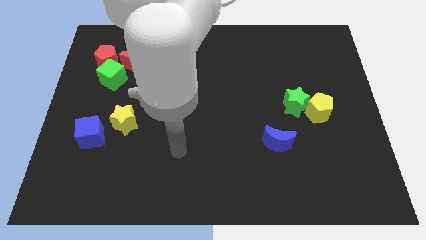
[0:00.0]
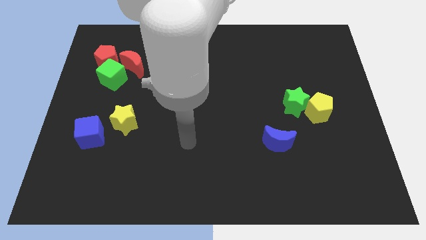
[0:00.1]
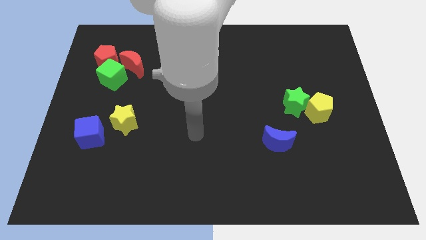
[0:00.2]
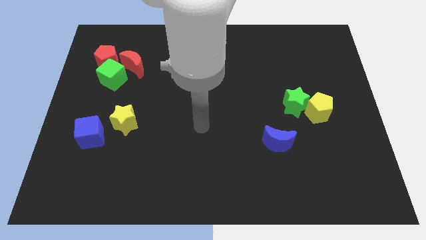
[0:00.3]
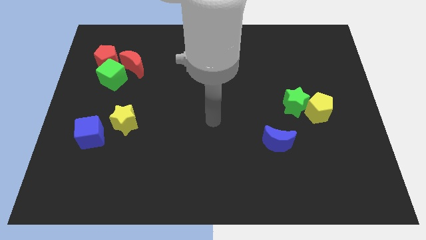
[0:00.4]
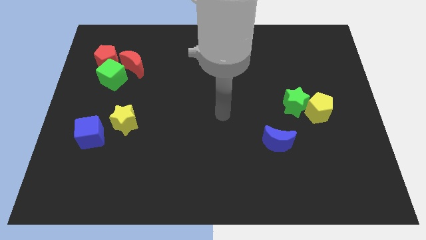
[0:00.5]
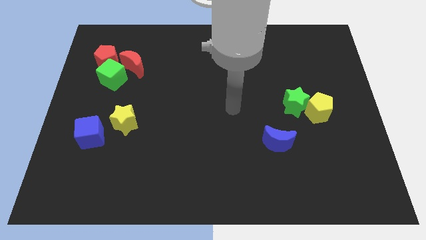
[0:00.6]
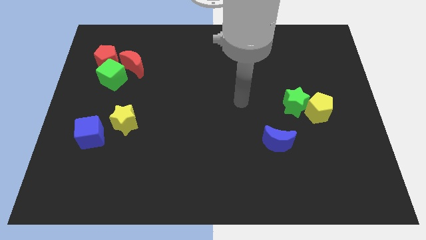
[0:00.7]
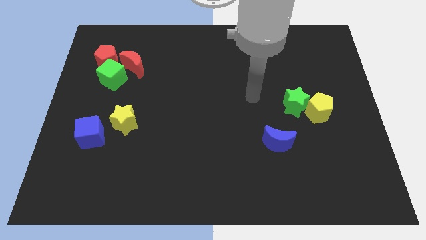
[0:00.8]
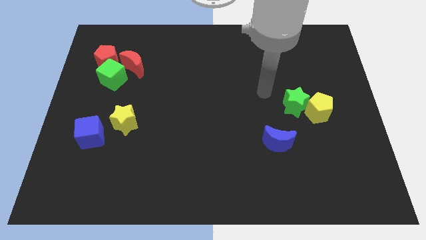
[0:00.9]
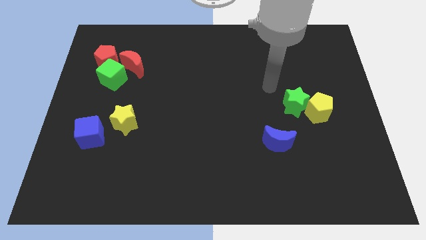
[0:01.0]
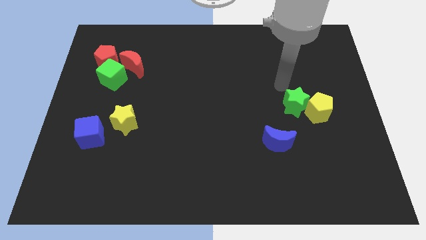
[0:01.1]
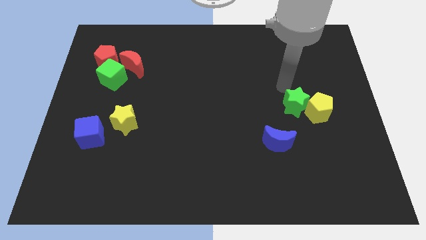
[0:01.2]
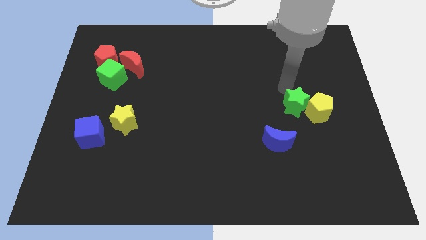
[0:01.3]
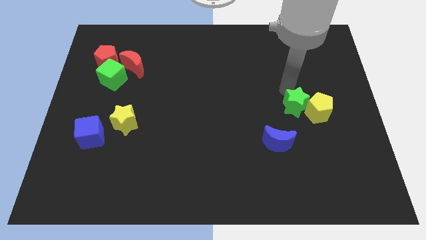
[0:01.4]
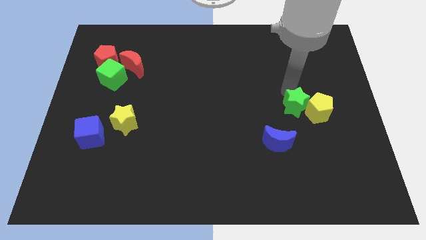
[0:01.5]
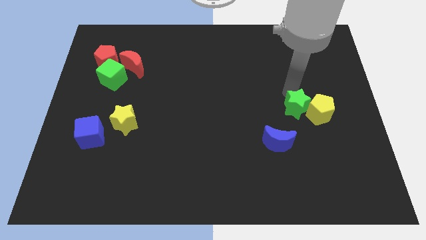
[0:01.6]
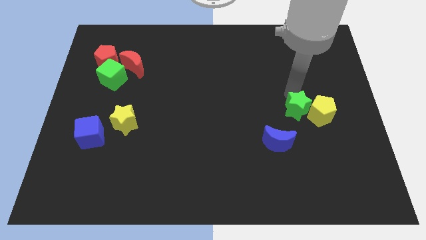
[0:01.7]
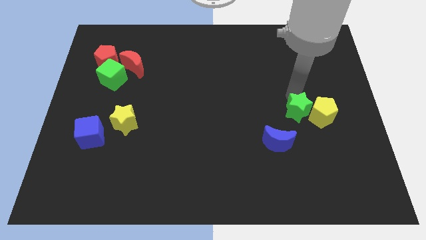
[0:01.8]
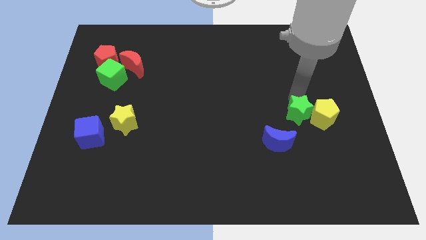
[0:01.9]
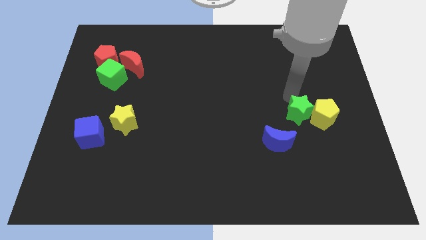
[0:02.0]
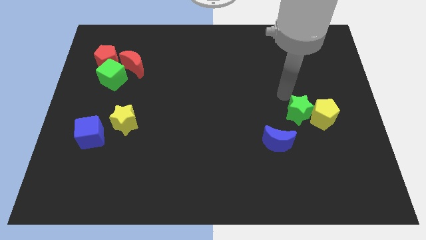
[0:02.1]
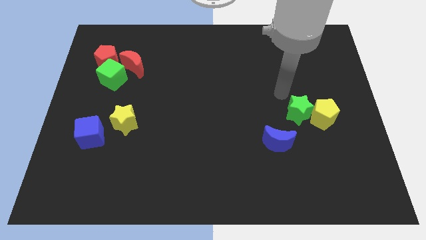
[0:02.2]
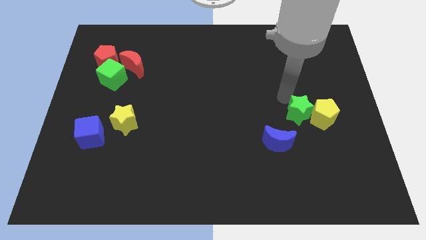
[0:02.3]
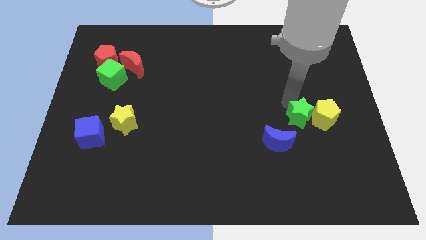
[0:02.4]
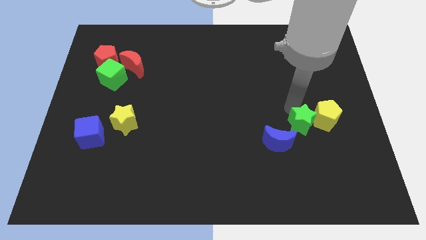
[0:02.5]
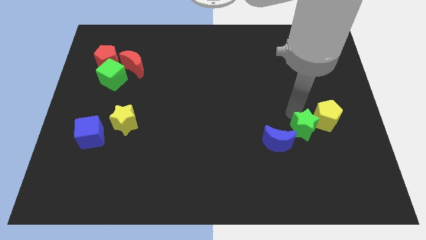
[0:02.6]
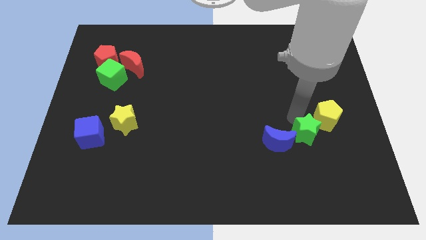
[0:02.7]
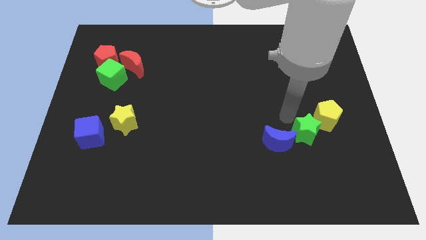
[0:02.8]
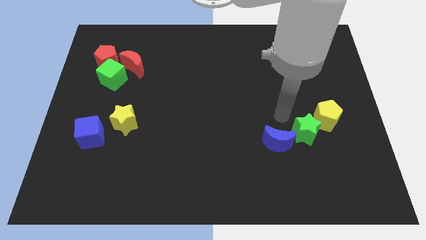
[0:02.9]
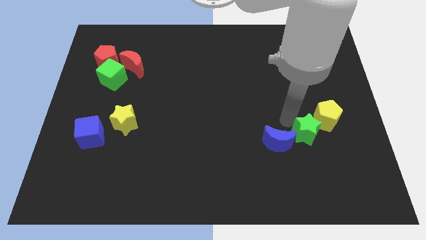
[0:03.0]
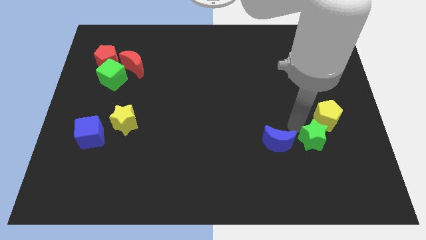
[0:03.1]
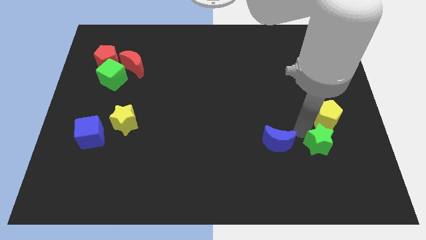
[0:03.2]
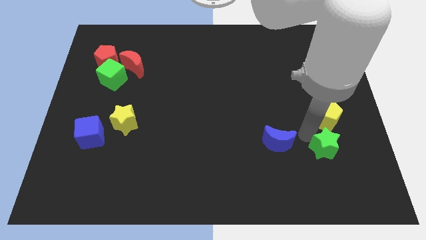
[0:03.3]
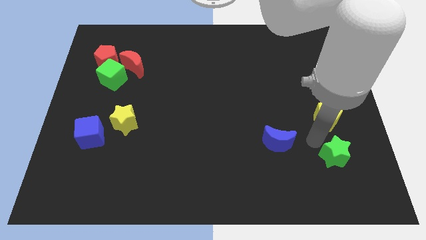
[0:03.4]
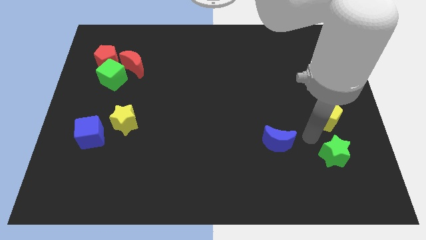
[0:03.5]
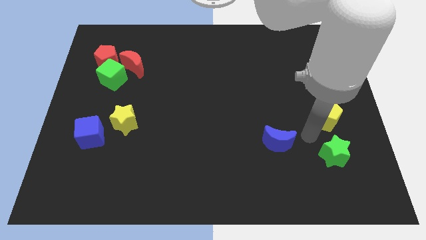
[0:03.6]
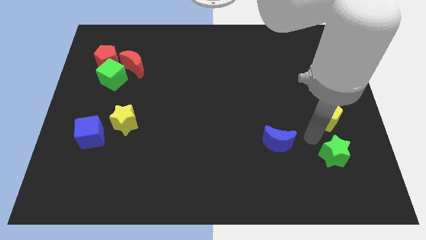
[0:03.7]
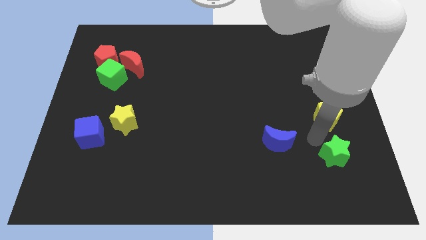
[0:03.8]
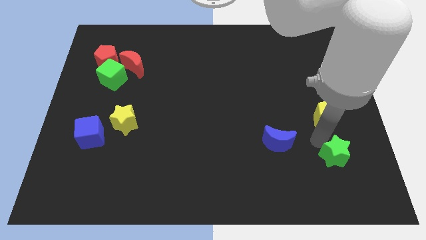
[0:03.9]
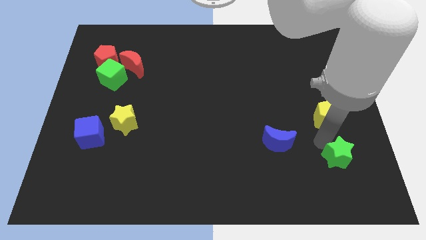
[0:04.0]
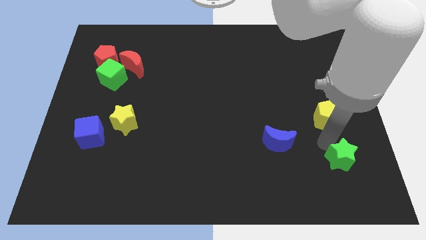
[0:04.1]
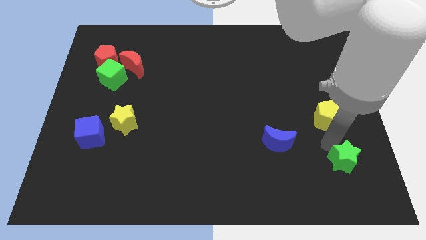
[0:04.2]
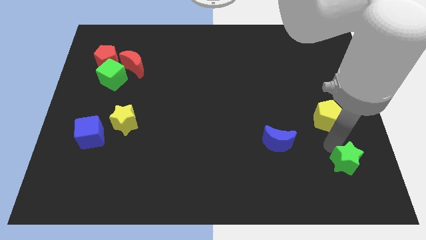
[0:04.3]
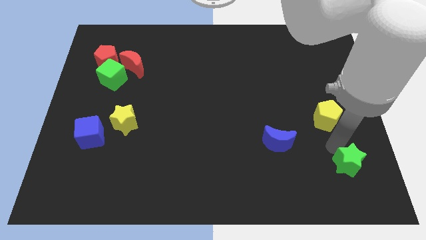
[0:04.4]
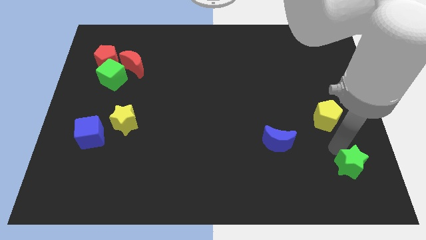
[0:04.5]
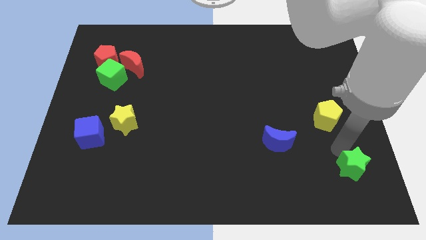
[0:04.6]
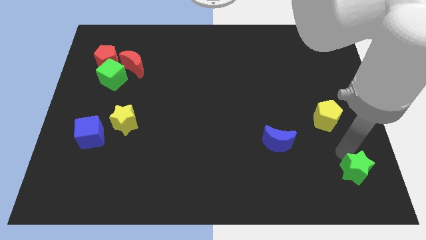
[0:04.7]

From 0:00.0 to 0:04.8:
put the green star to the bottom right

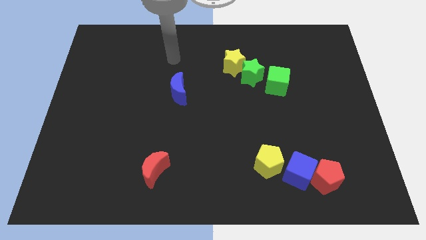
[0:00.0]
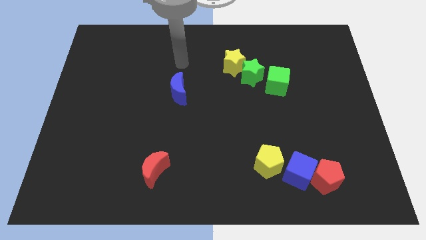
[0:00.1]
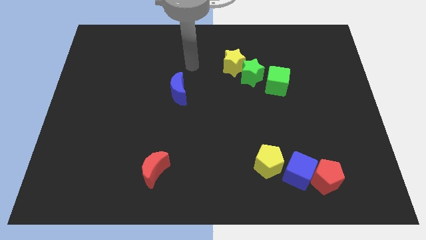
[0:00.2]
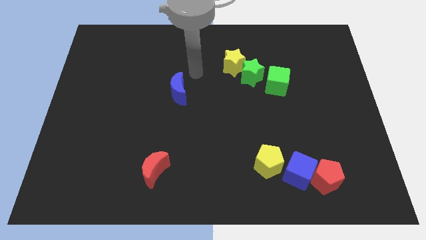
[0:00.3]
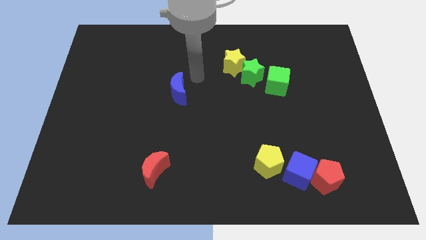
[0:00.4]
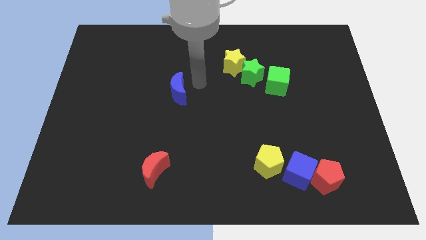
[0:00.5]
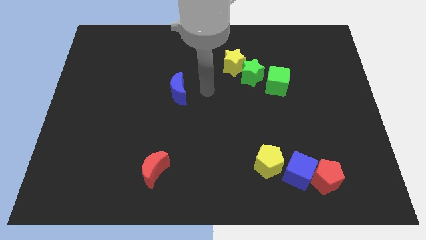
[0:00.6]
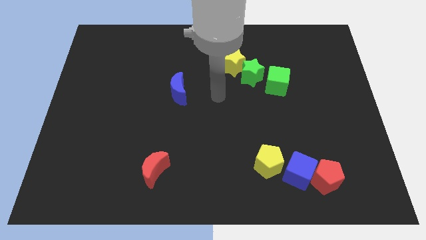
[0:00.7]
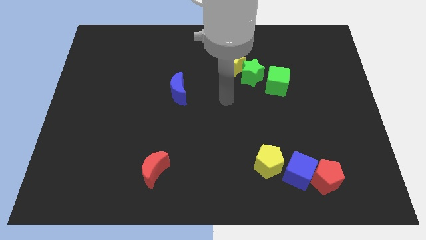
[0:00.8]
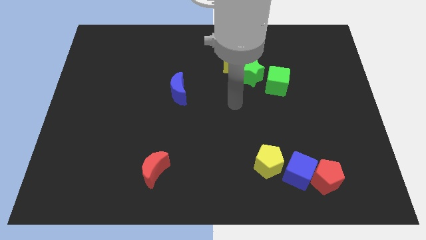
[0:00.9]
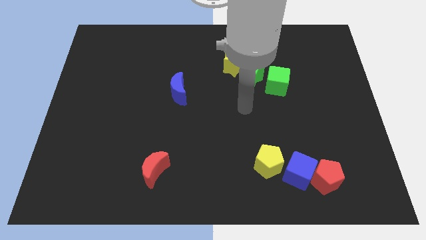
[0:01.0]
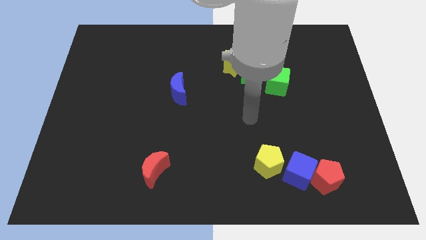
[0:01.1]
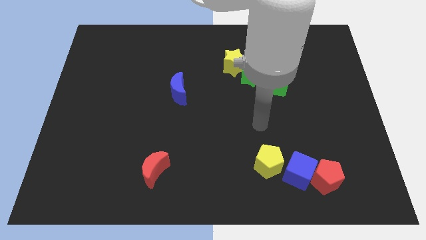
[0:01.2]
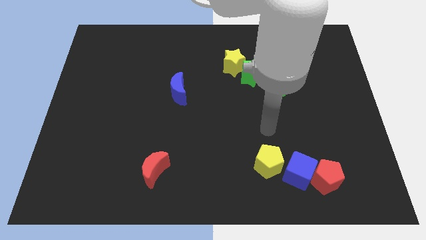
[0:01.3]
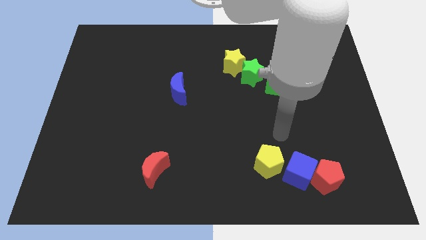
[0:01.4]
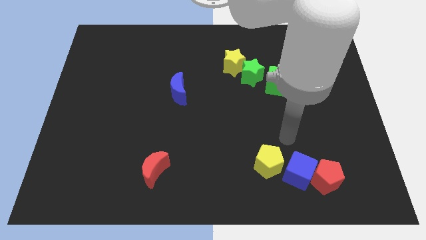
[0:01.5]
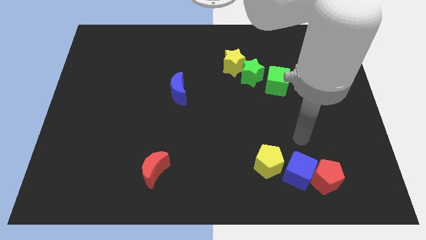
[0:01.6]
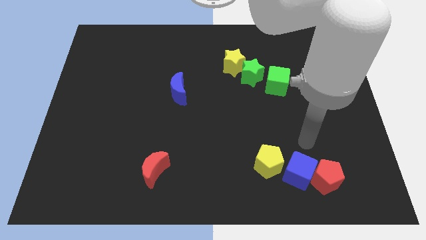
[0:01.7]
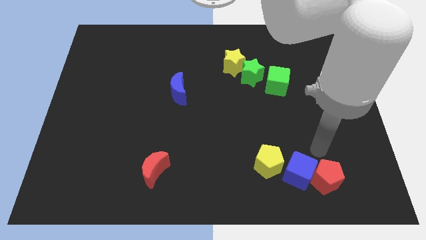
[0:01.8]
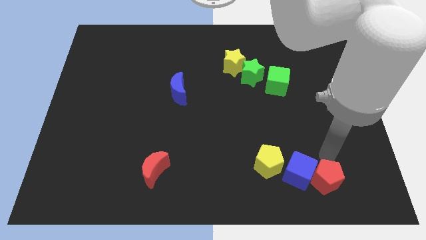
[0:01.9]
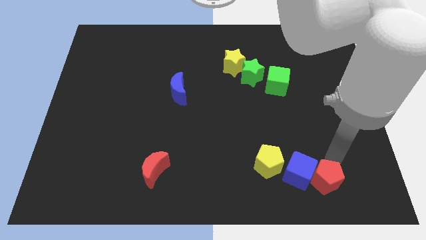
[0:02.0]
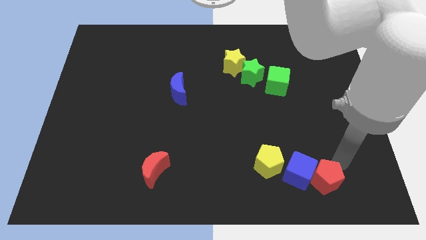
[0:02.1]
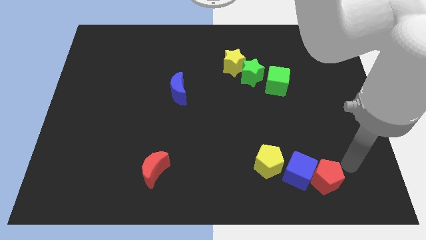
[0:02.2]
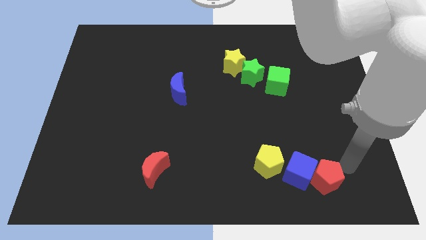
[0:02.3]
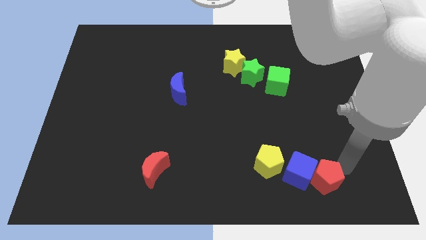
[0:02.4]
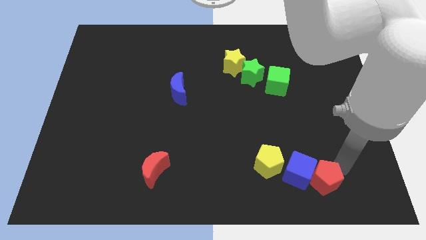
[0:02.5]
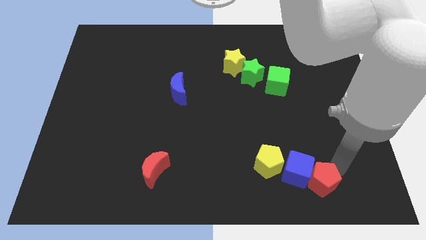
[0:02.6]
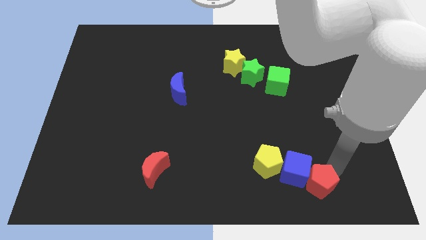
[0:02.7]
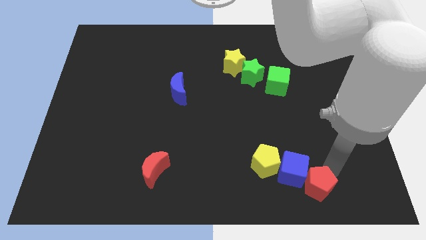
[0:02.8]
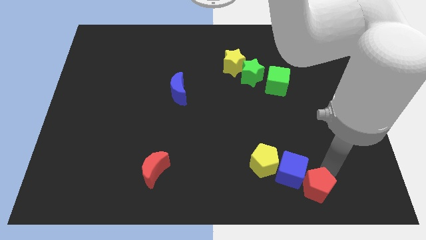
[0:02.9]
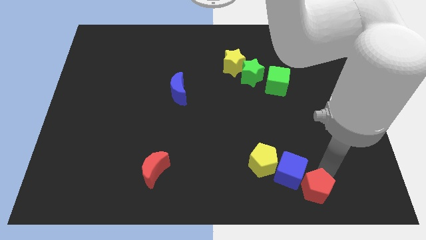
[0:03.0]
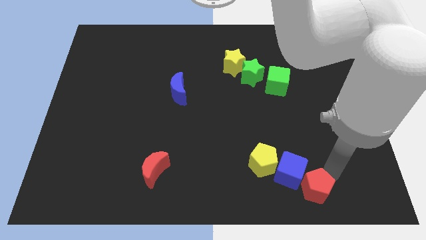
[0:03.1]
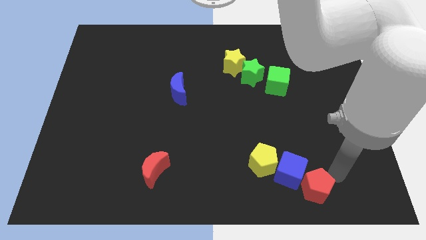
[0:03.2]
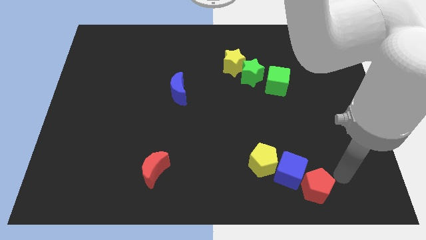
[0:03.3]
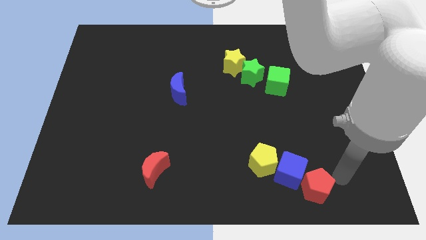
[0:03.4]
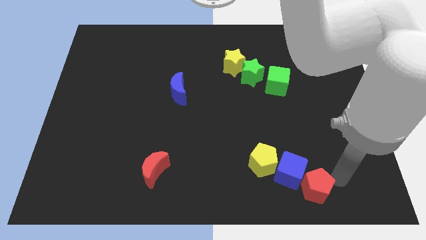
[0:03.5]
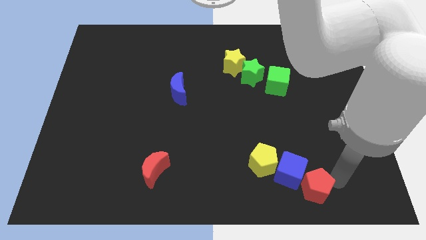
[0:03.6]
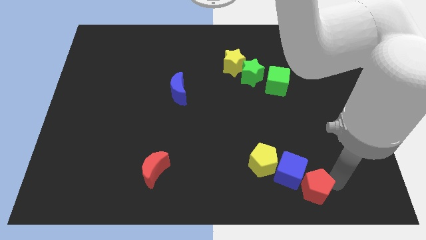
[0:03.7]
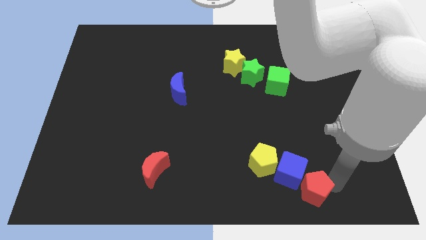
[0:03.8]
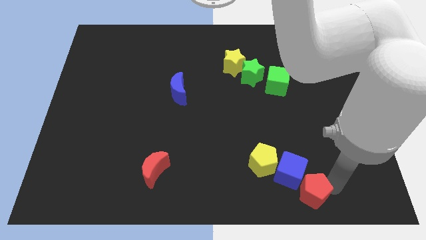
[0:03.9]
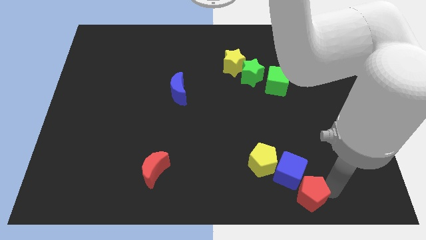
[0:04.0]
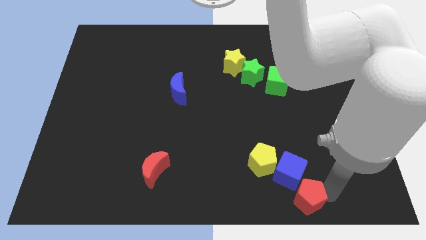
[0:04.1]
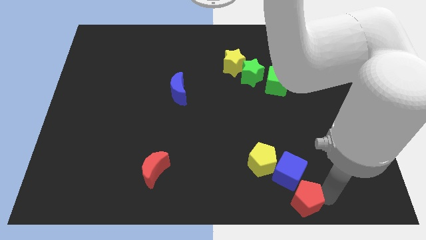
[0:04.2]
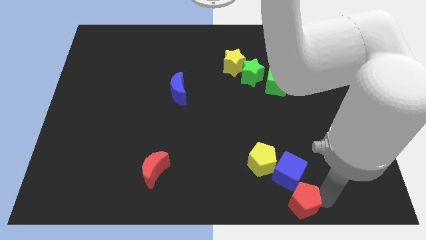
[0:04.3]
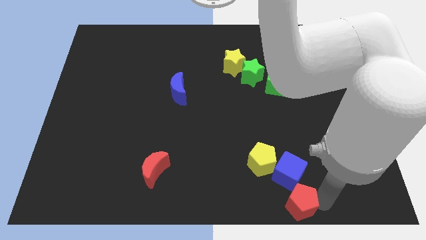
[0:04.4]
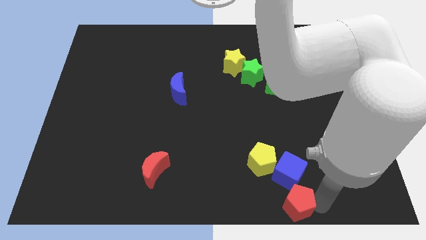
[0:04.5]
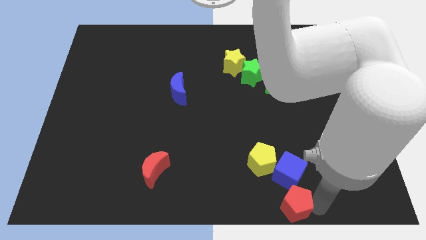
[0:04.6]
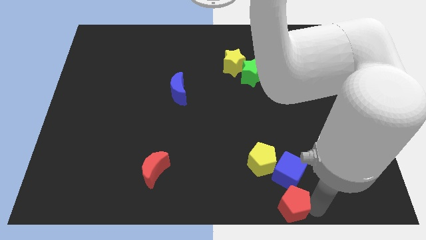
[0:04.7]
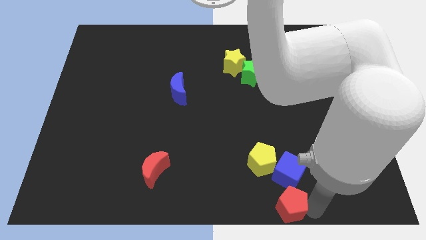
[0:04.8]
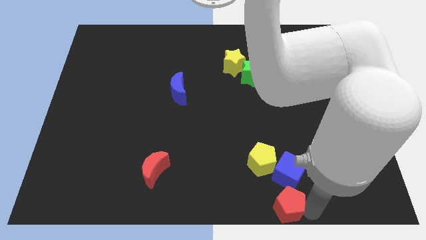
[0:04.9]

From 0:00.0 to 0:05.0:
push the red pentagon to the bottom side
